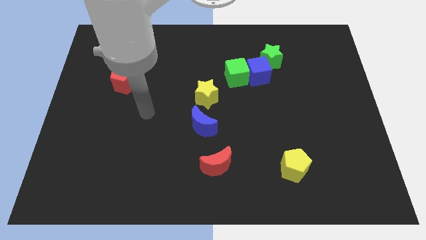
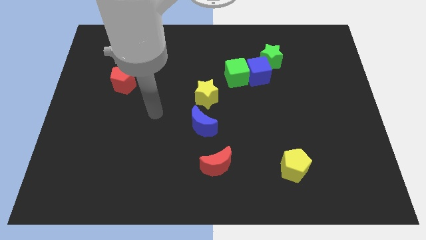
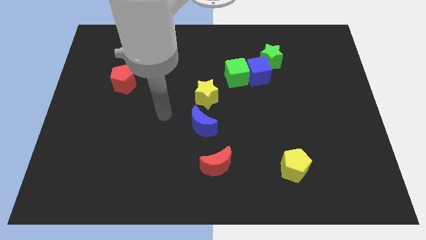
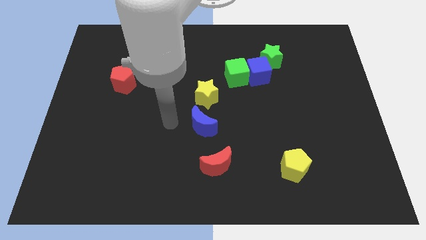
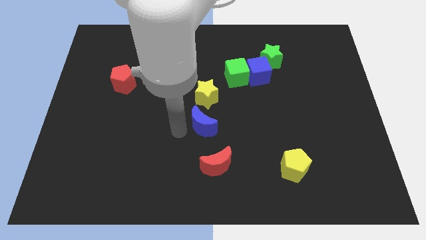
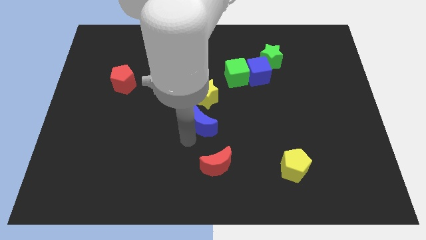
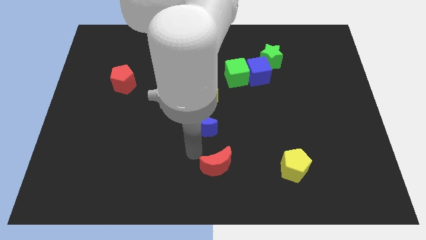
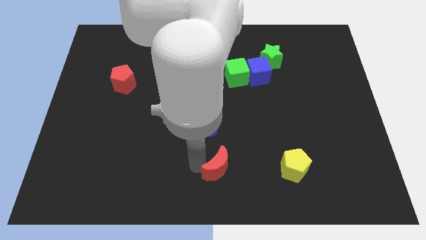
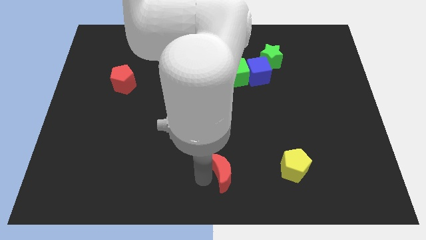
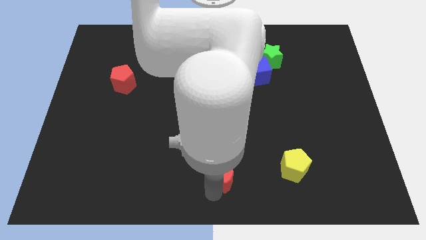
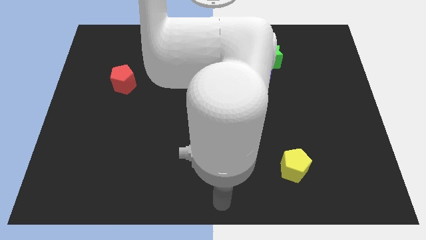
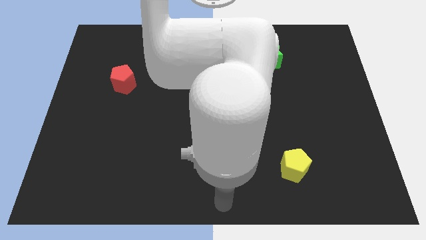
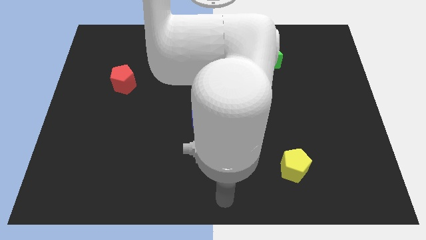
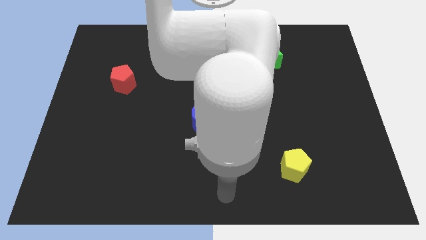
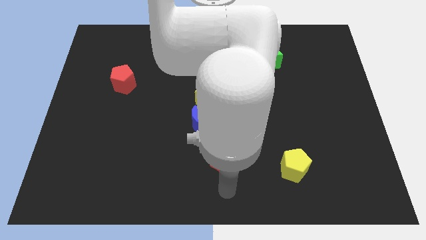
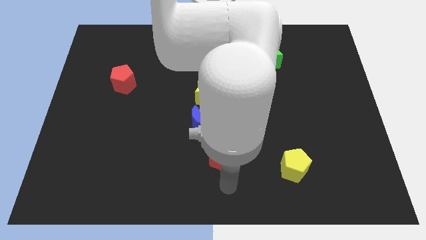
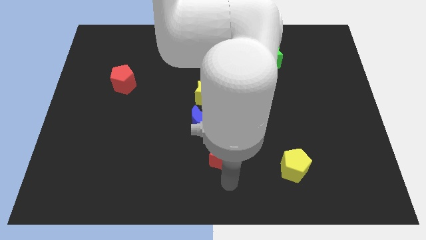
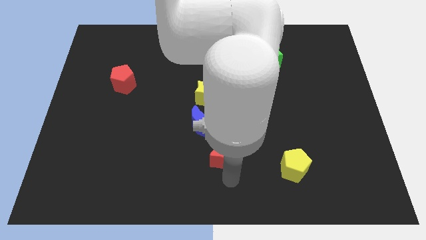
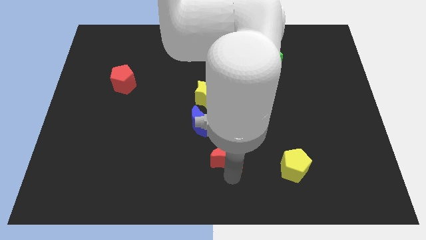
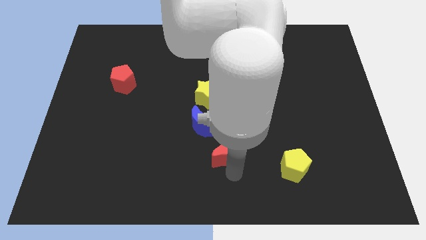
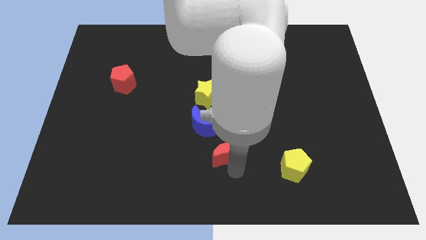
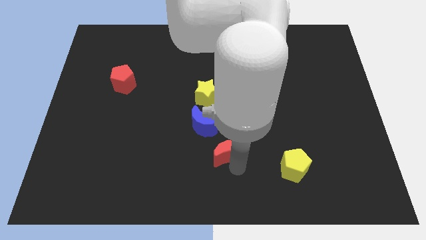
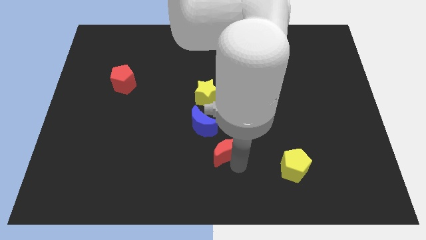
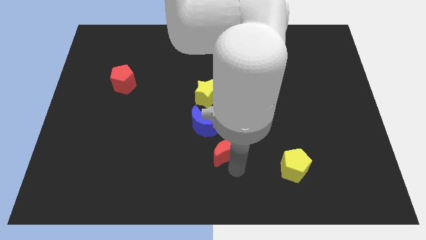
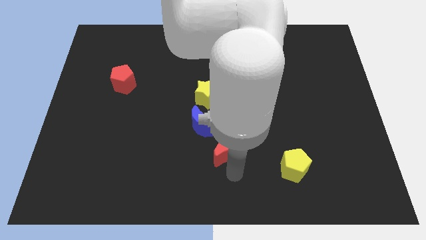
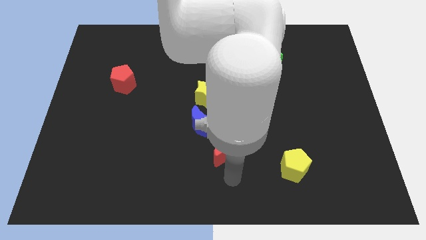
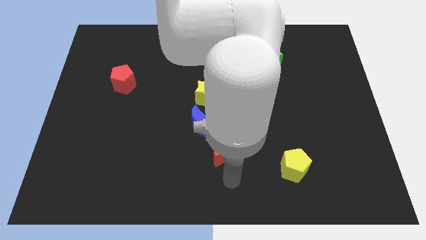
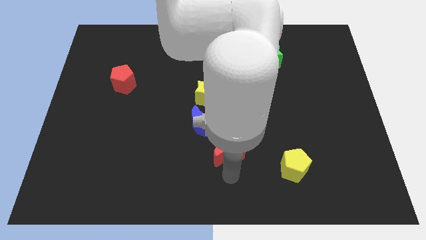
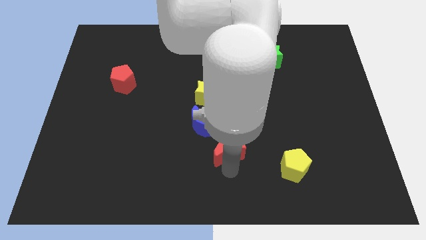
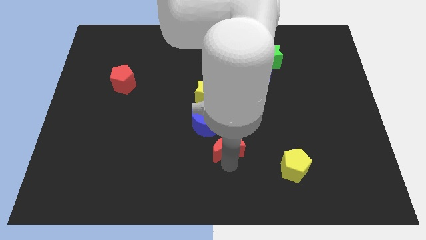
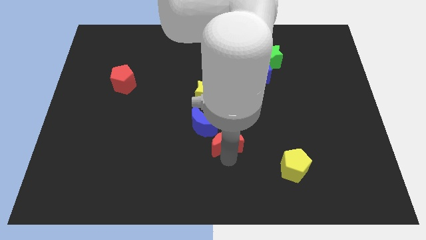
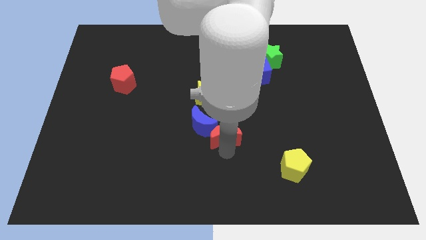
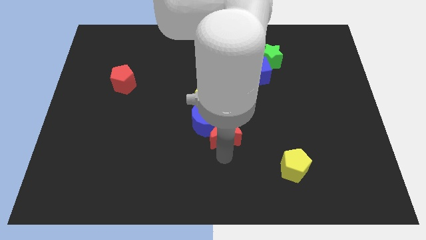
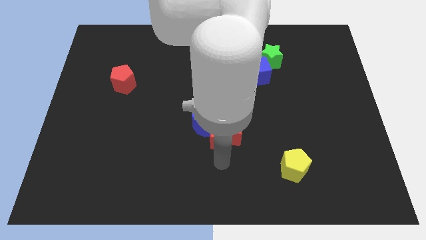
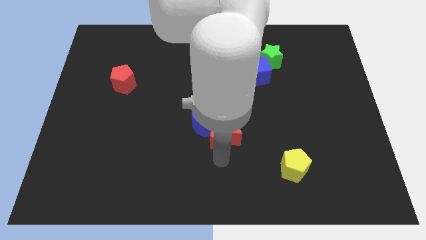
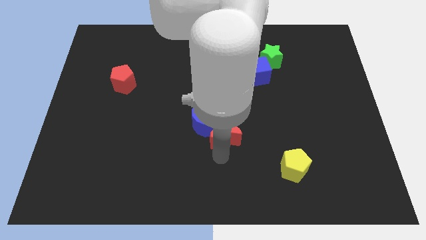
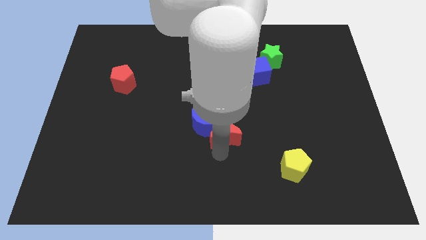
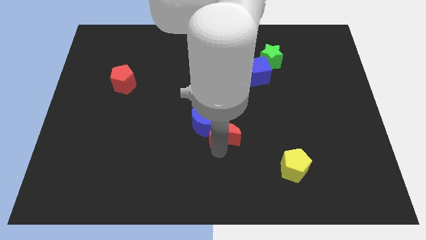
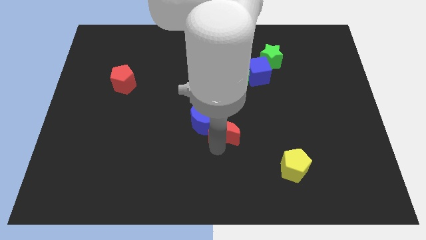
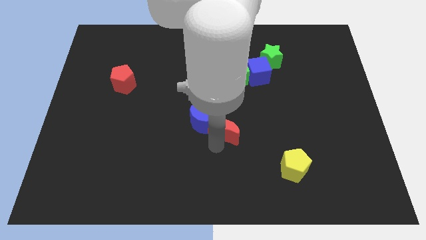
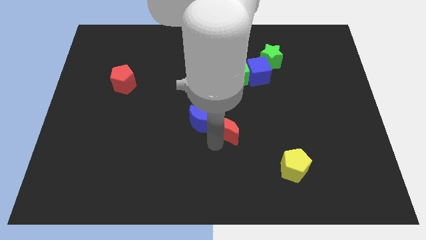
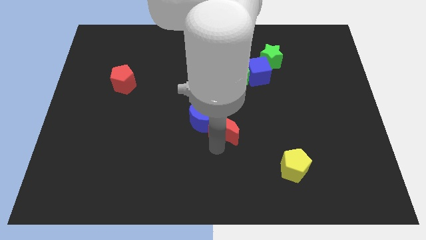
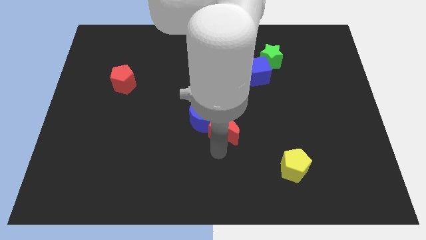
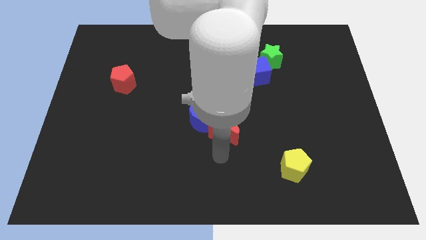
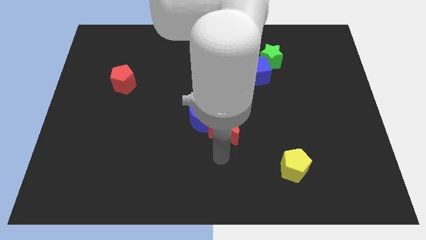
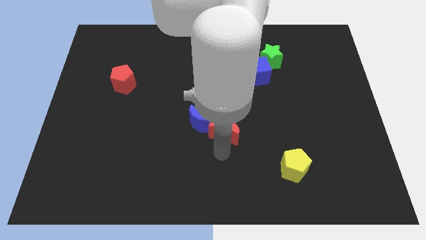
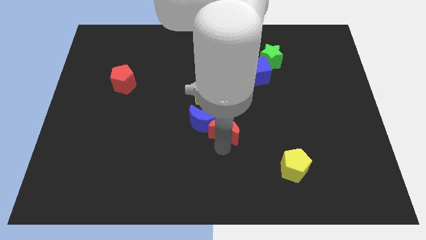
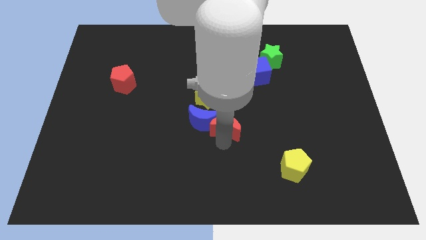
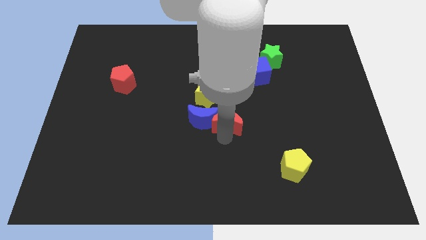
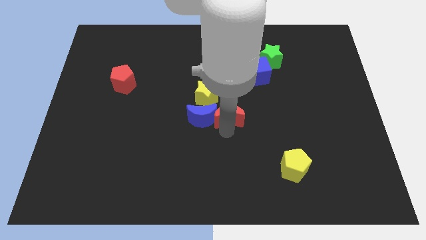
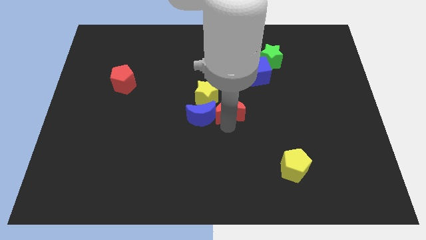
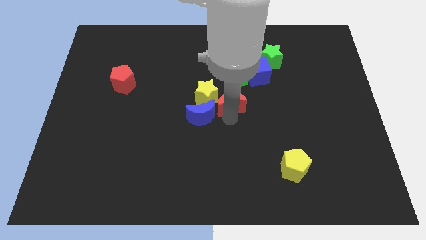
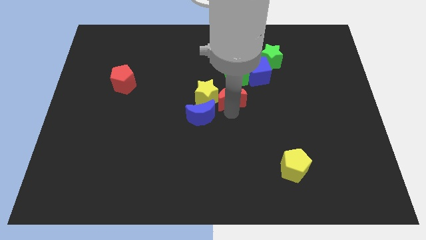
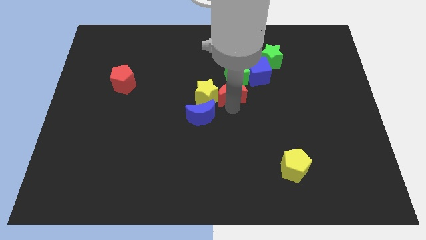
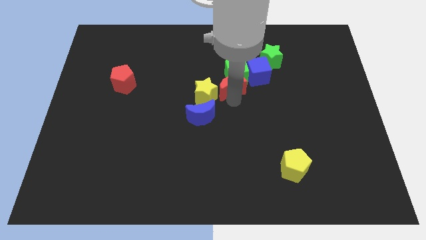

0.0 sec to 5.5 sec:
push the red moon upwards

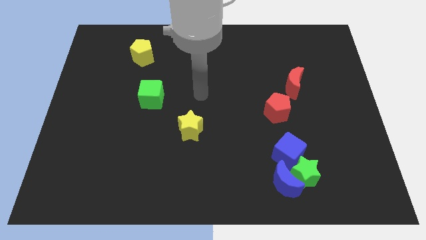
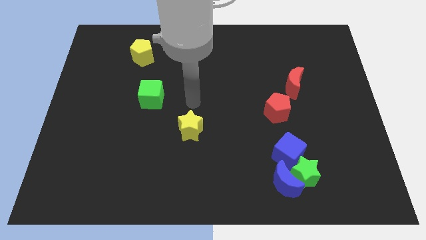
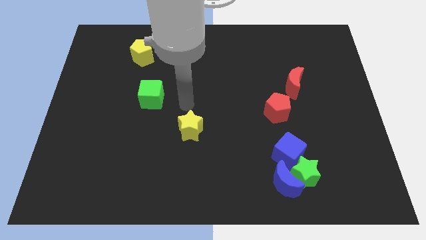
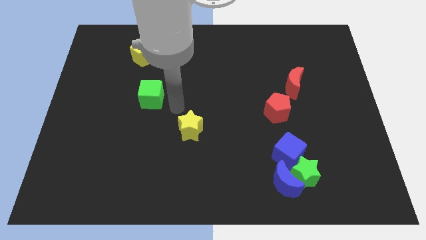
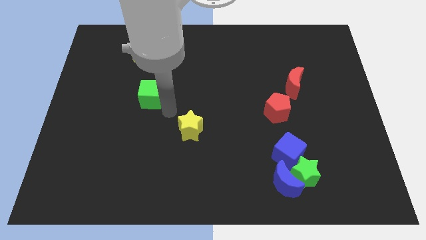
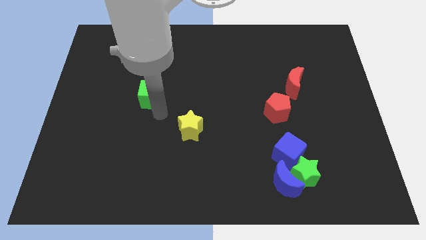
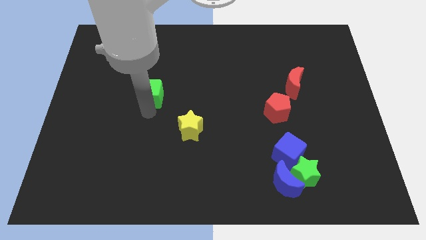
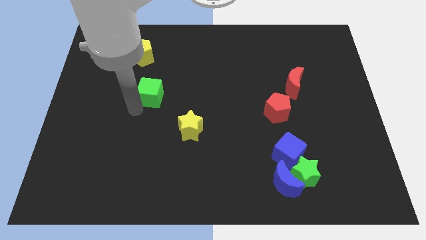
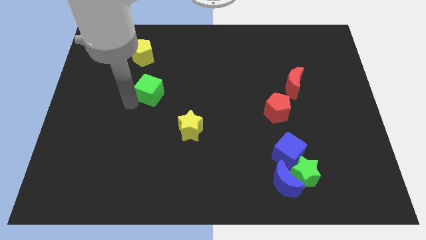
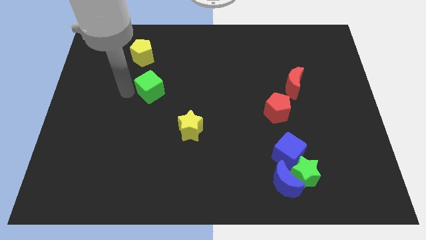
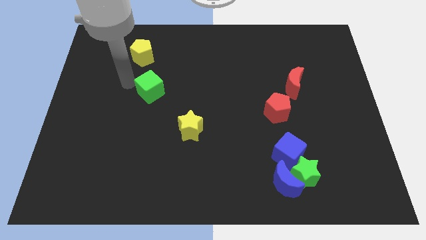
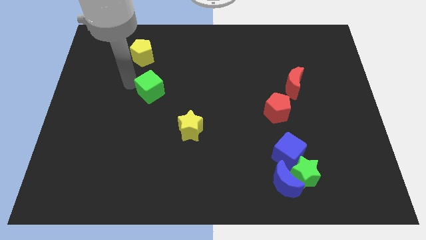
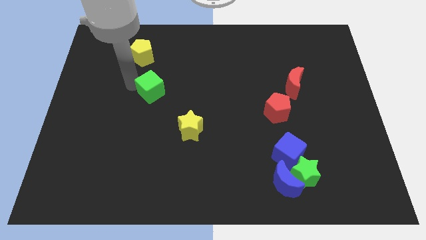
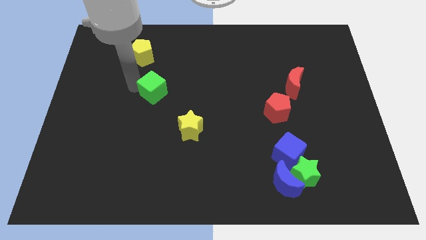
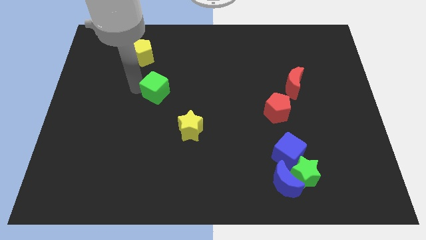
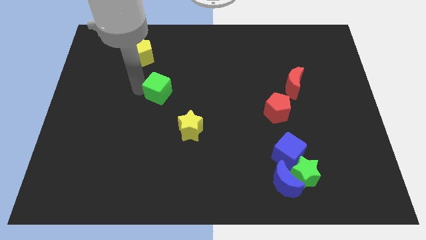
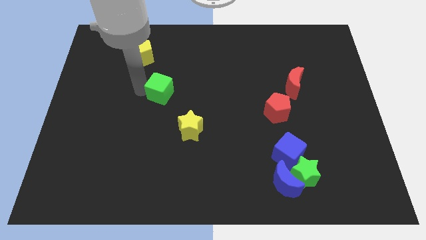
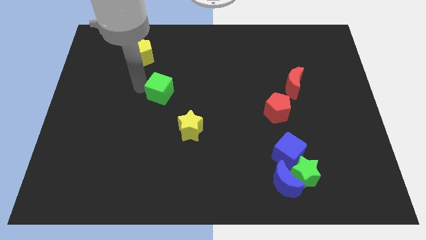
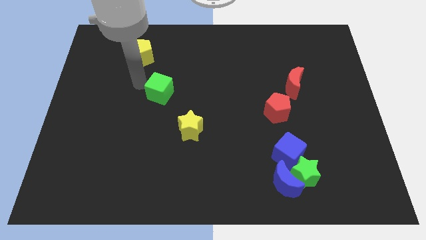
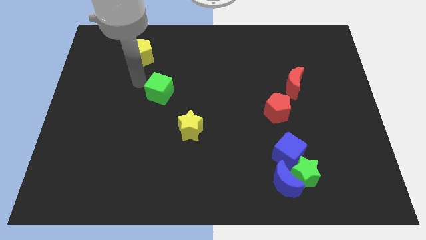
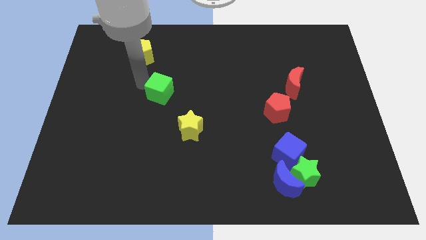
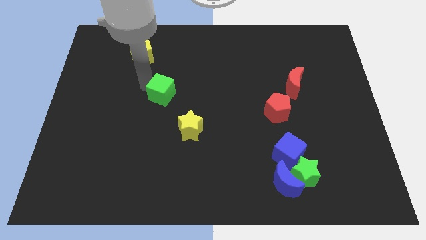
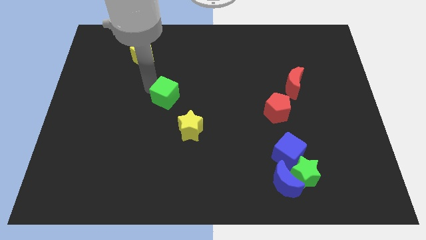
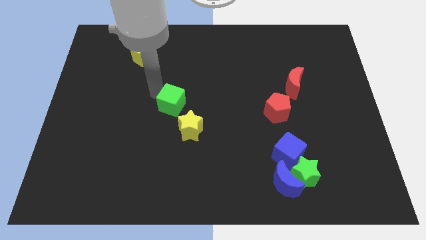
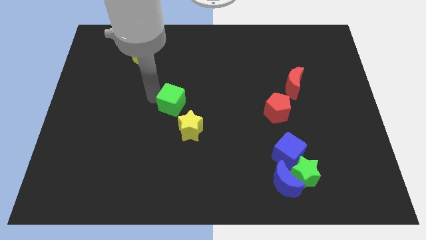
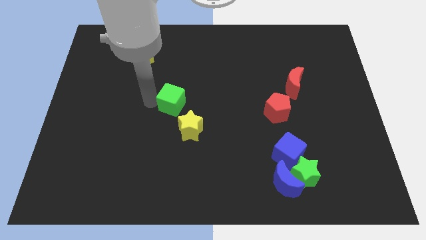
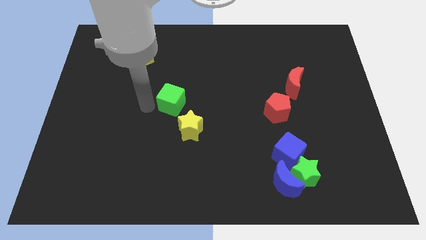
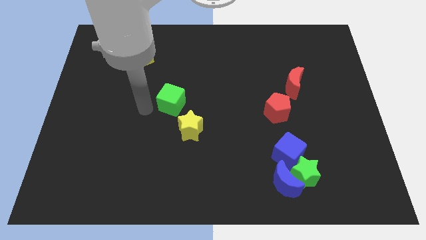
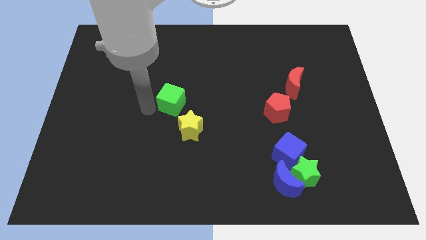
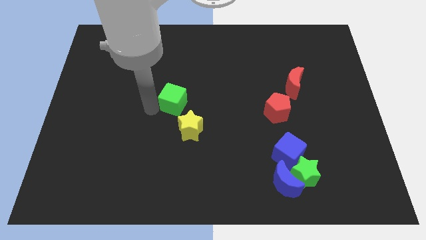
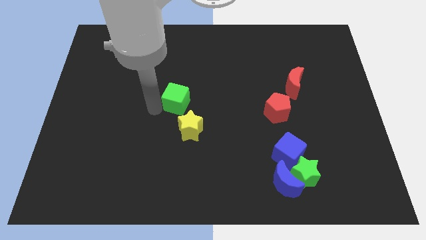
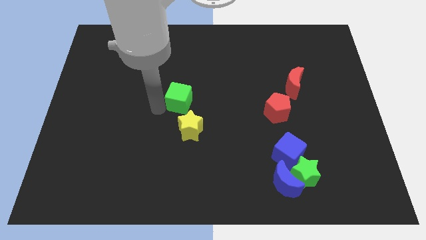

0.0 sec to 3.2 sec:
slightly slide the green cube to the right
